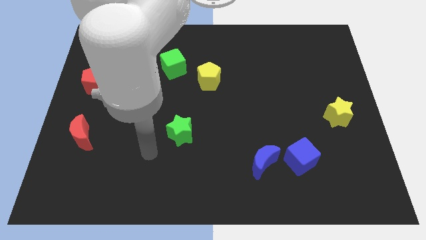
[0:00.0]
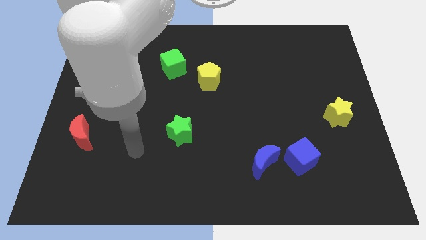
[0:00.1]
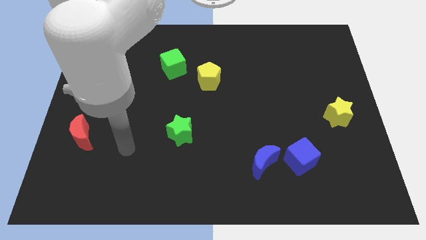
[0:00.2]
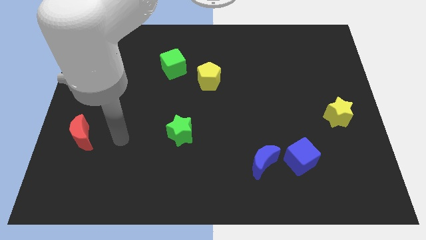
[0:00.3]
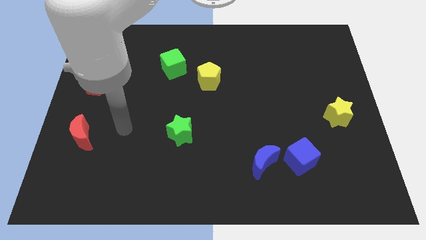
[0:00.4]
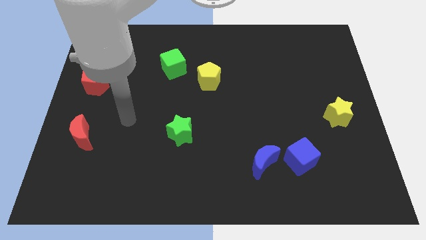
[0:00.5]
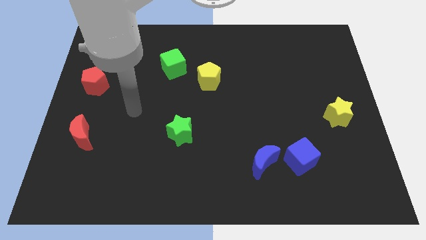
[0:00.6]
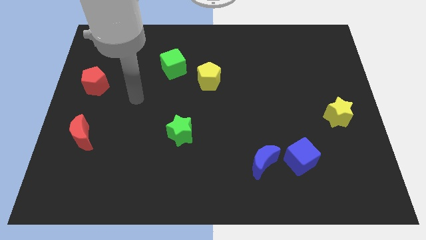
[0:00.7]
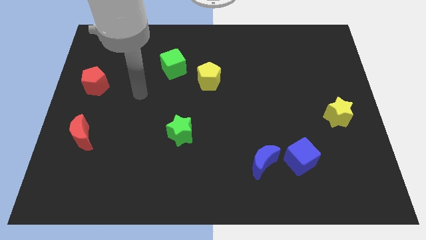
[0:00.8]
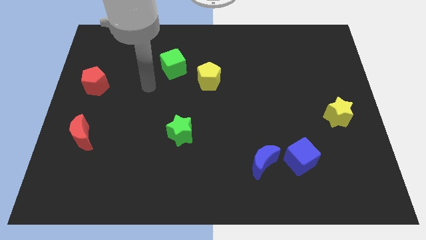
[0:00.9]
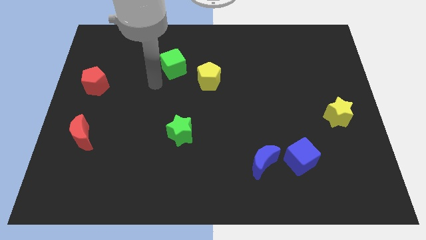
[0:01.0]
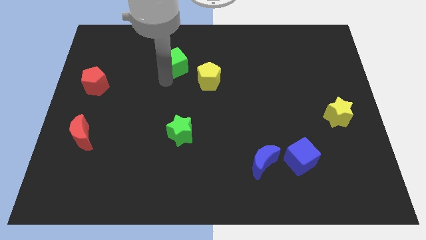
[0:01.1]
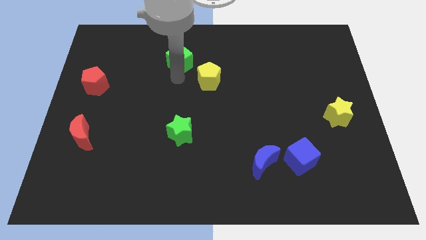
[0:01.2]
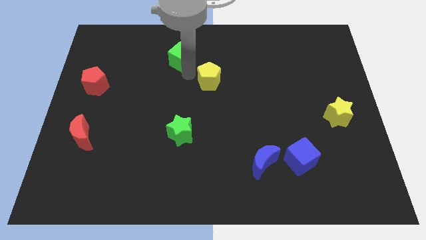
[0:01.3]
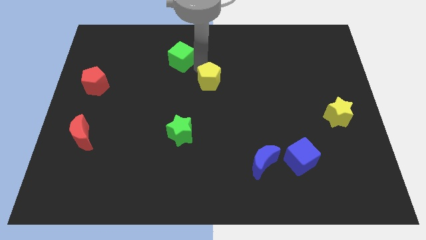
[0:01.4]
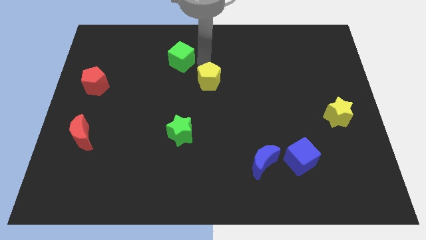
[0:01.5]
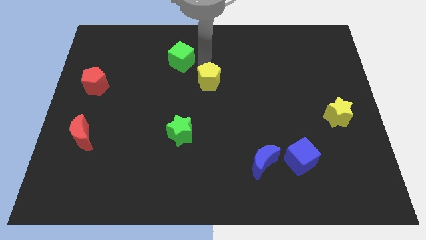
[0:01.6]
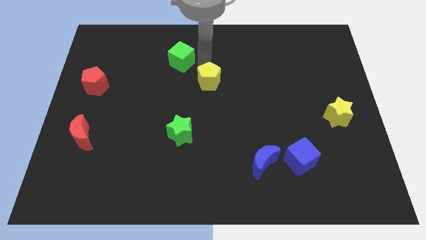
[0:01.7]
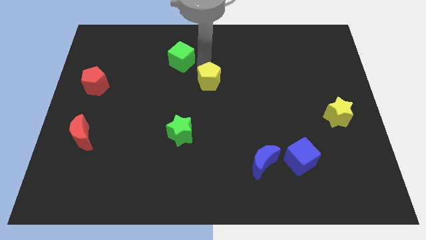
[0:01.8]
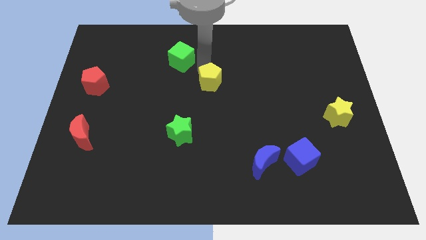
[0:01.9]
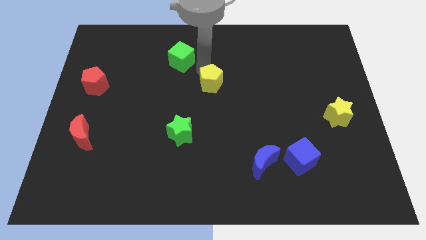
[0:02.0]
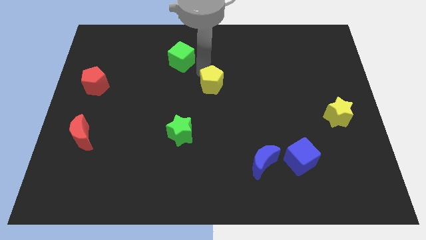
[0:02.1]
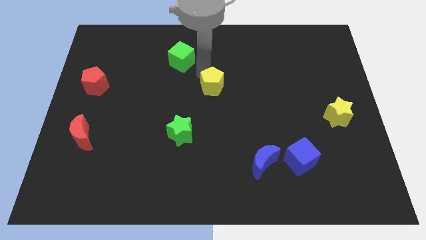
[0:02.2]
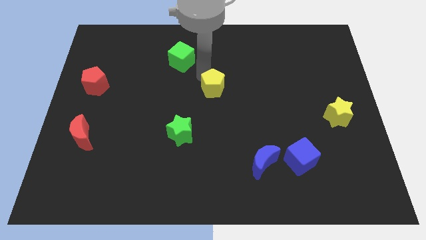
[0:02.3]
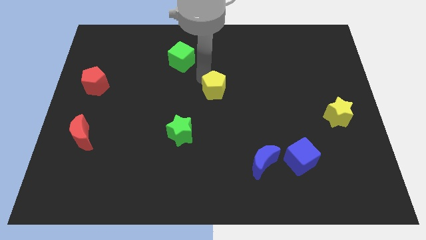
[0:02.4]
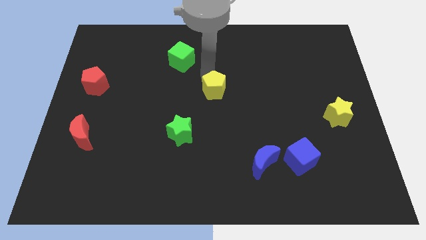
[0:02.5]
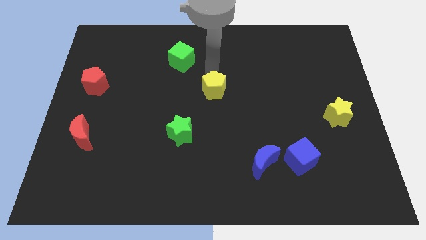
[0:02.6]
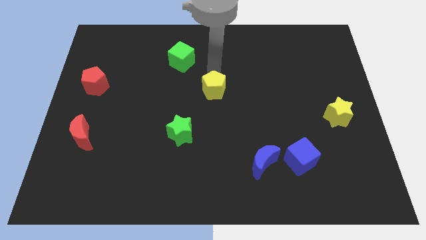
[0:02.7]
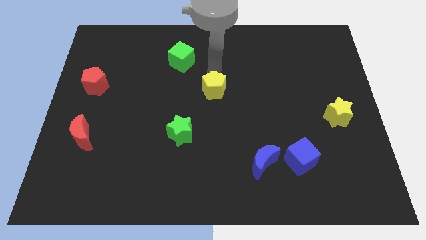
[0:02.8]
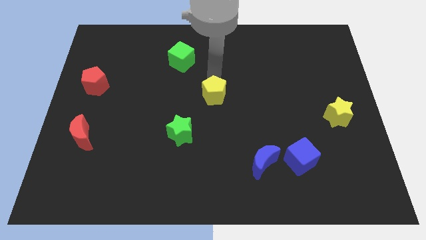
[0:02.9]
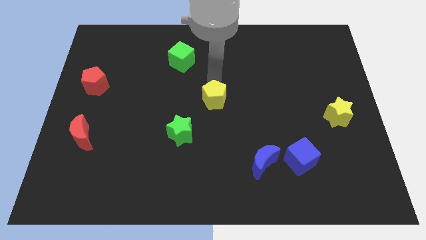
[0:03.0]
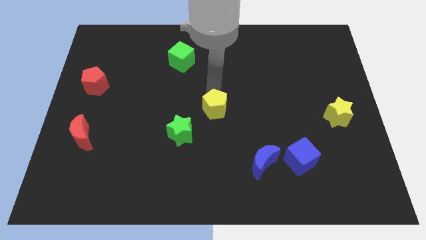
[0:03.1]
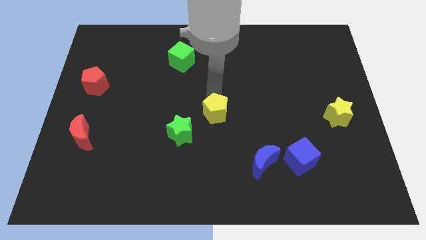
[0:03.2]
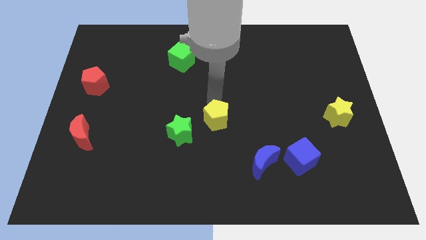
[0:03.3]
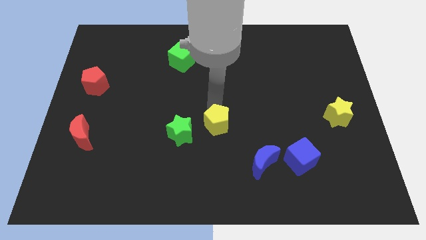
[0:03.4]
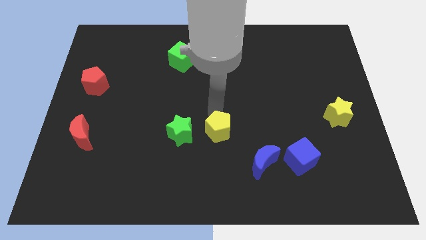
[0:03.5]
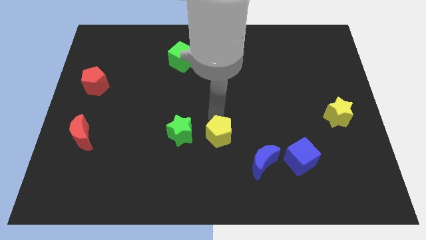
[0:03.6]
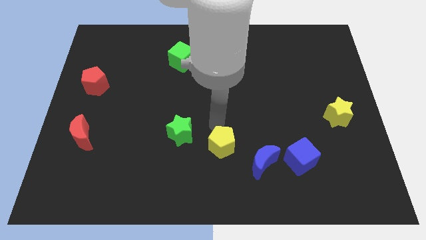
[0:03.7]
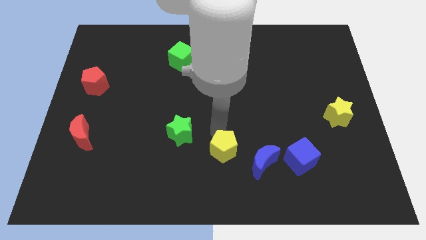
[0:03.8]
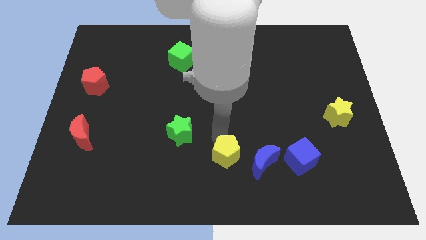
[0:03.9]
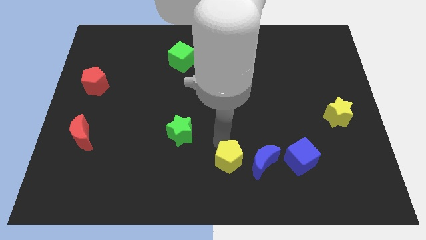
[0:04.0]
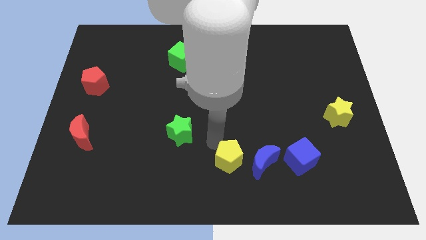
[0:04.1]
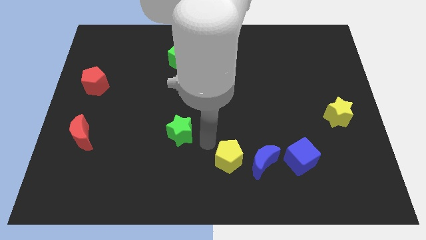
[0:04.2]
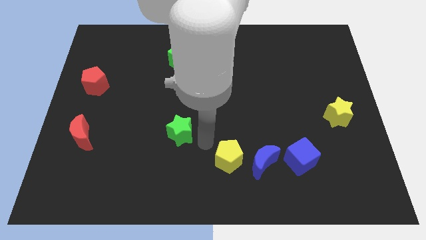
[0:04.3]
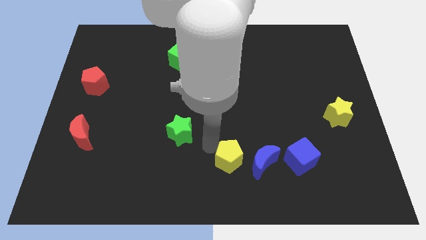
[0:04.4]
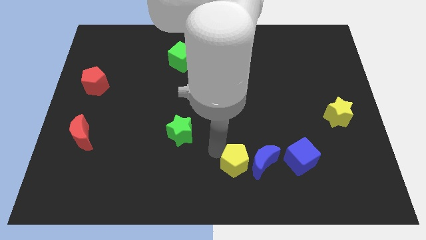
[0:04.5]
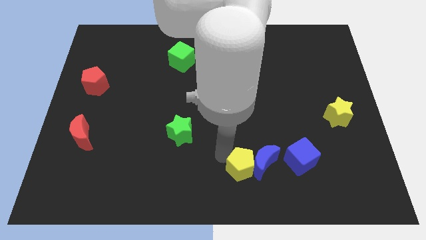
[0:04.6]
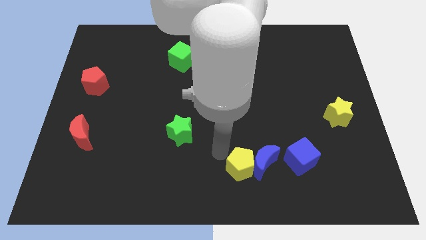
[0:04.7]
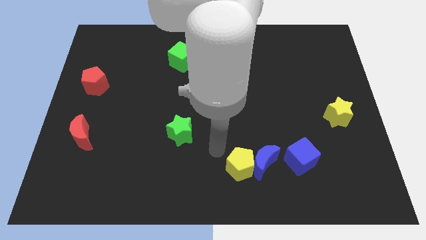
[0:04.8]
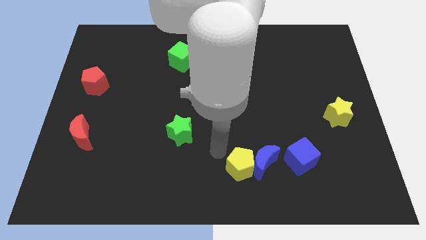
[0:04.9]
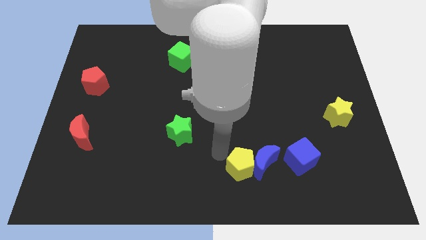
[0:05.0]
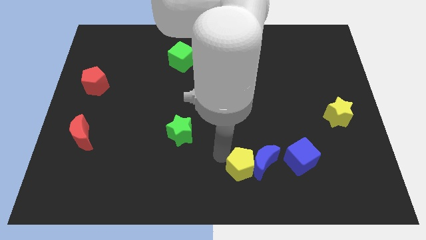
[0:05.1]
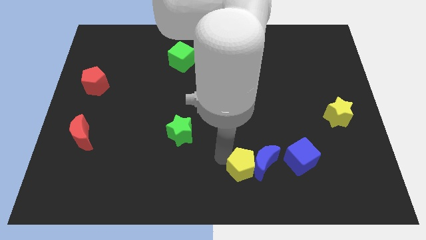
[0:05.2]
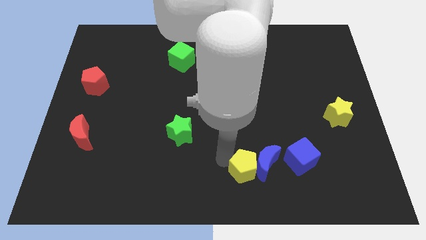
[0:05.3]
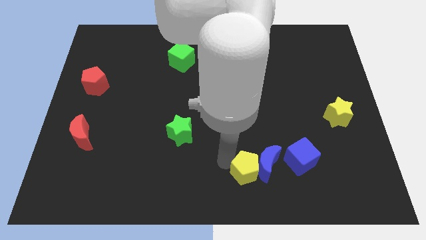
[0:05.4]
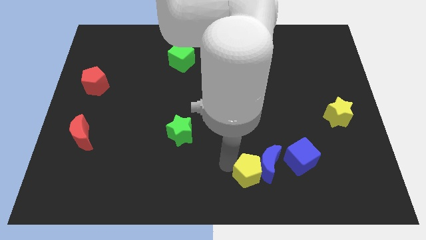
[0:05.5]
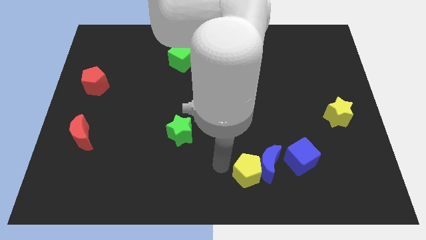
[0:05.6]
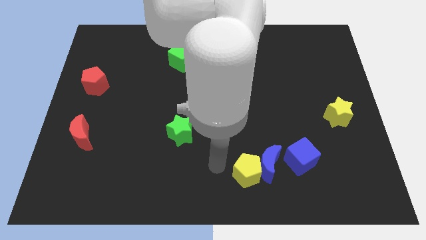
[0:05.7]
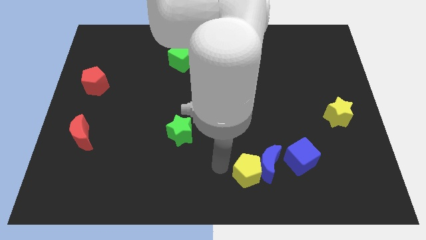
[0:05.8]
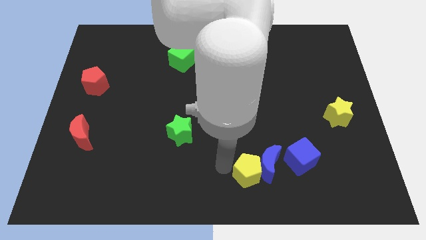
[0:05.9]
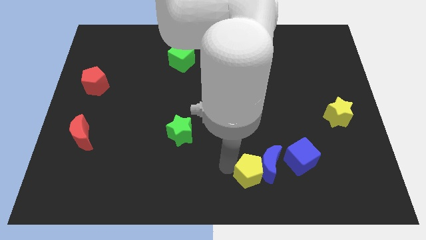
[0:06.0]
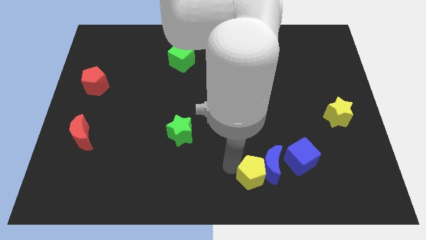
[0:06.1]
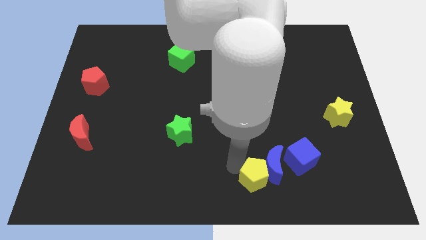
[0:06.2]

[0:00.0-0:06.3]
slide the yellow pentagon to the bottom left of the blue cube

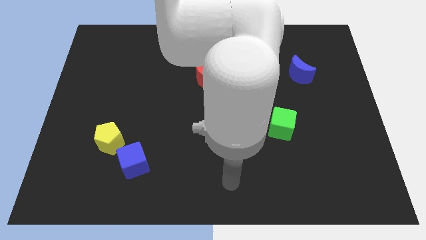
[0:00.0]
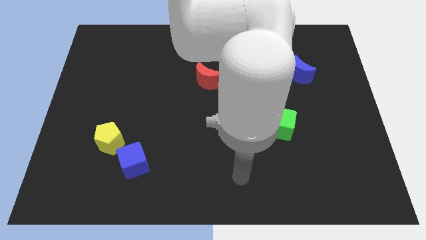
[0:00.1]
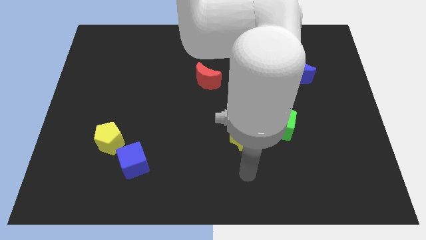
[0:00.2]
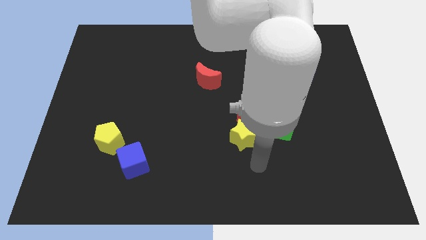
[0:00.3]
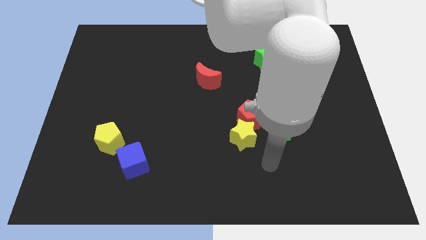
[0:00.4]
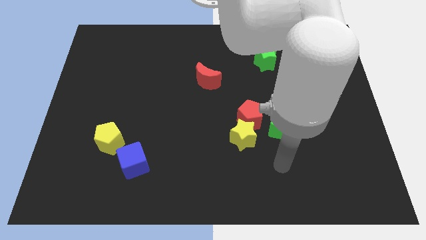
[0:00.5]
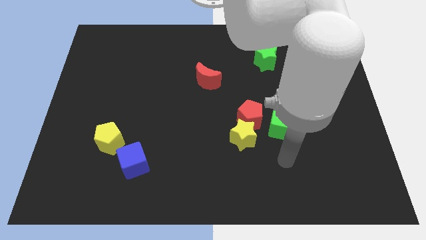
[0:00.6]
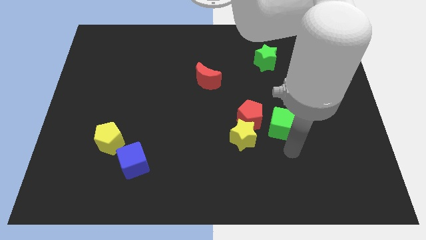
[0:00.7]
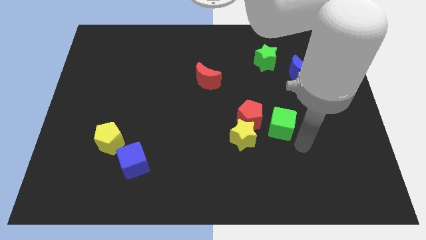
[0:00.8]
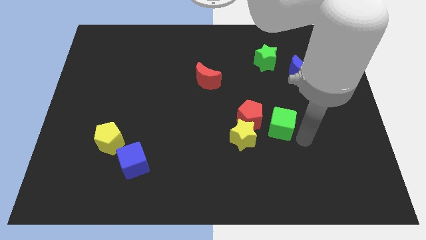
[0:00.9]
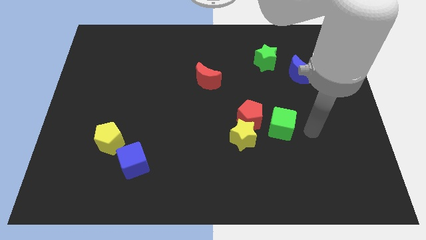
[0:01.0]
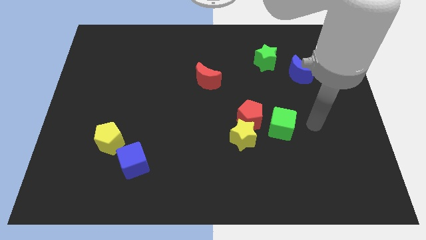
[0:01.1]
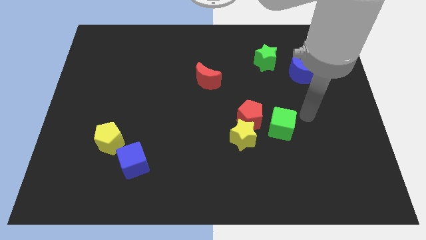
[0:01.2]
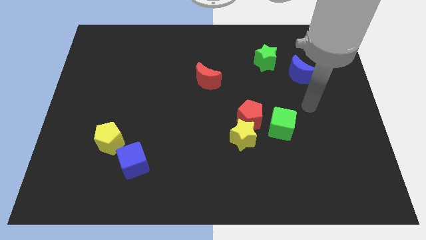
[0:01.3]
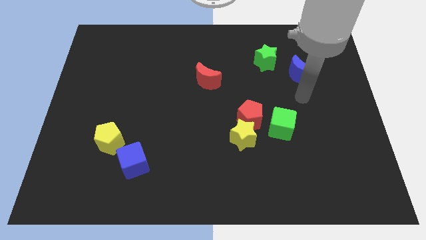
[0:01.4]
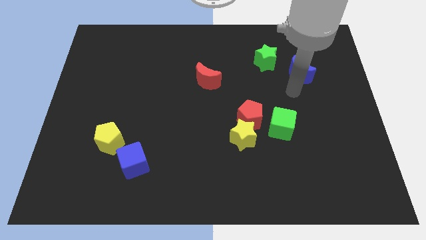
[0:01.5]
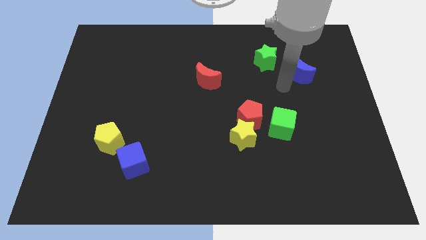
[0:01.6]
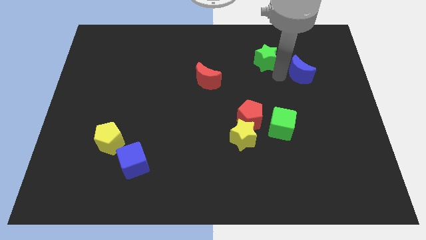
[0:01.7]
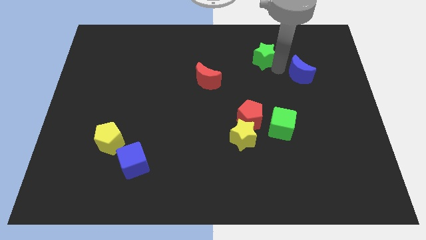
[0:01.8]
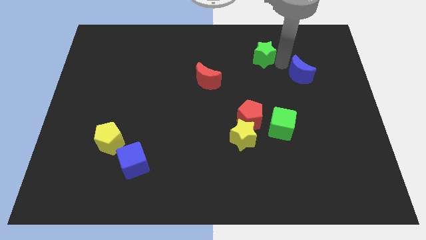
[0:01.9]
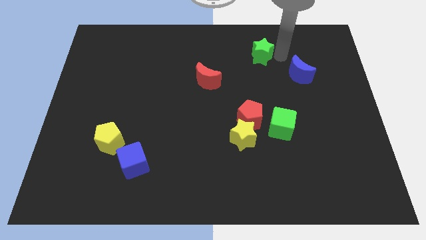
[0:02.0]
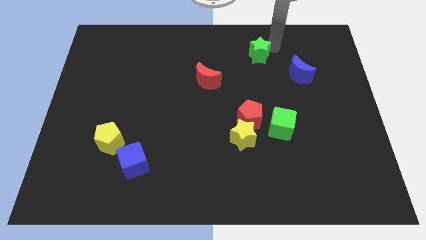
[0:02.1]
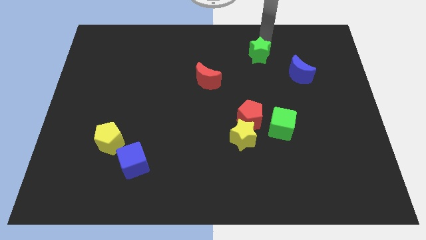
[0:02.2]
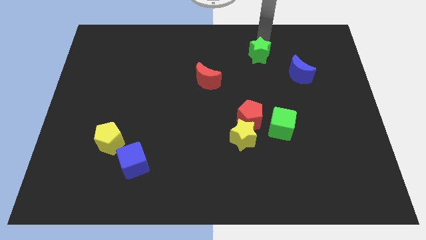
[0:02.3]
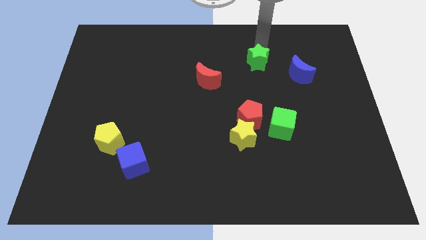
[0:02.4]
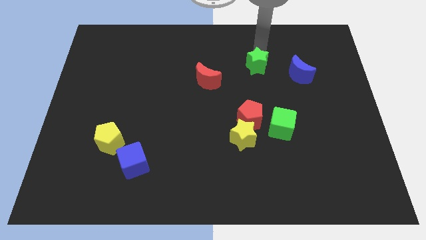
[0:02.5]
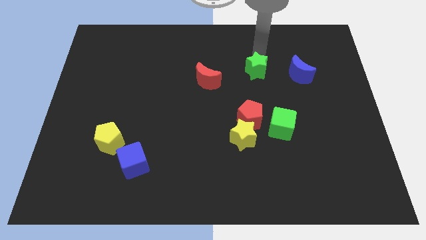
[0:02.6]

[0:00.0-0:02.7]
move the green star to the right side of the red moon
